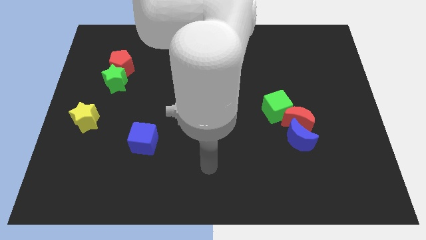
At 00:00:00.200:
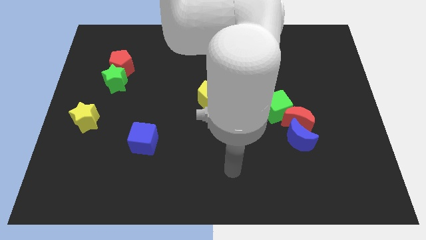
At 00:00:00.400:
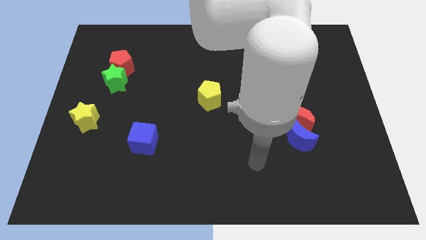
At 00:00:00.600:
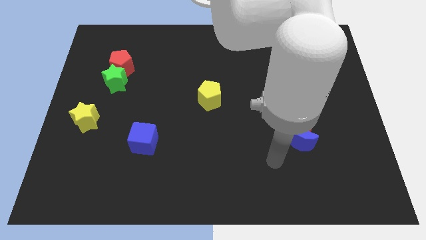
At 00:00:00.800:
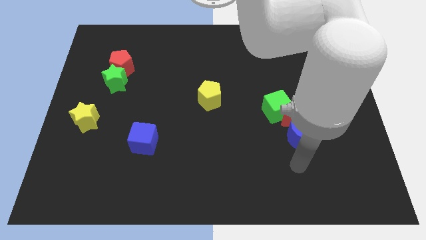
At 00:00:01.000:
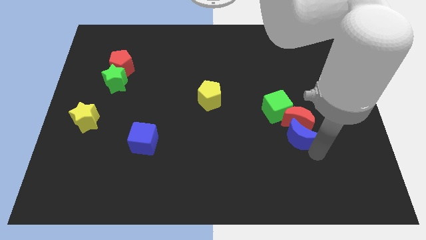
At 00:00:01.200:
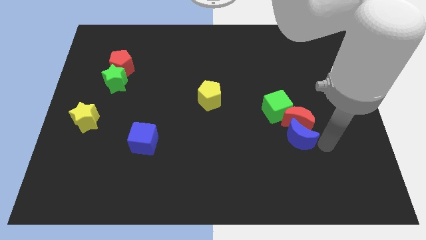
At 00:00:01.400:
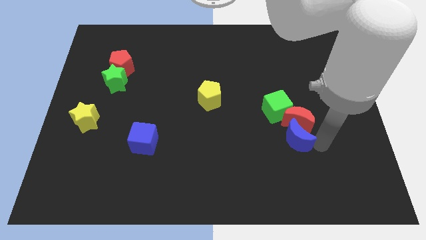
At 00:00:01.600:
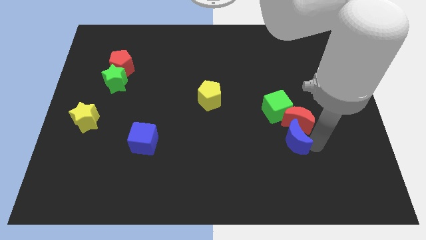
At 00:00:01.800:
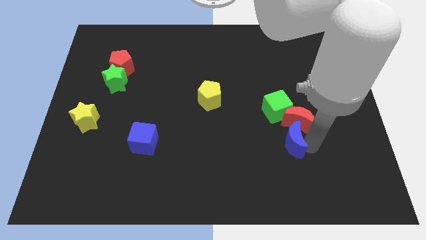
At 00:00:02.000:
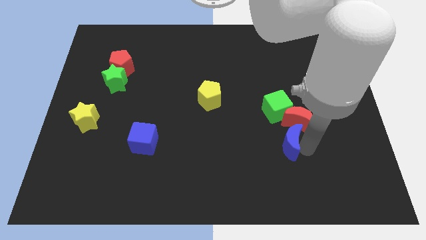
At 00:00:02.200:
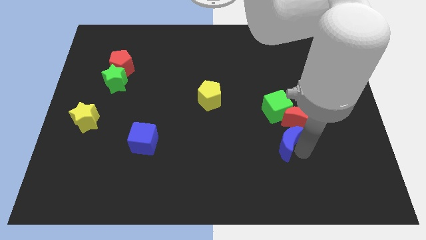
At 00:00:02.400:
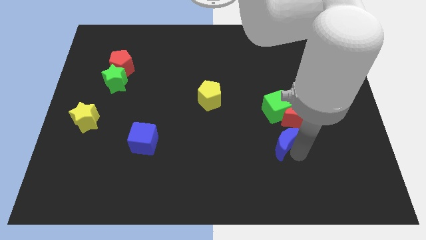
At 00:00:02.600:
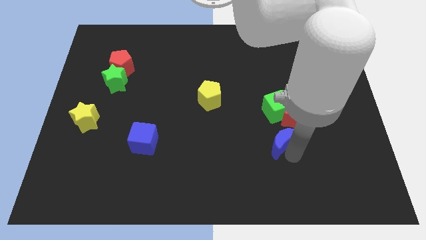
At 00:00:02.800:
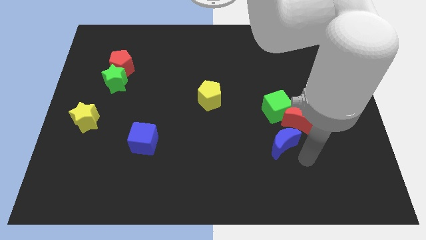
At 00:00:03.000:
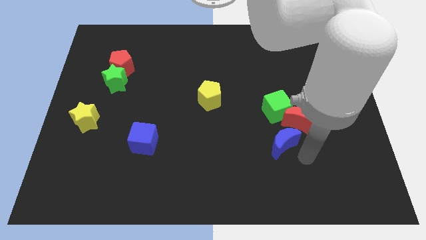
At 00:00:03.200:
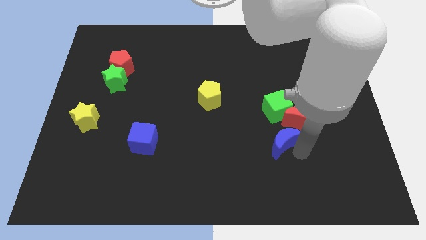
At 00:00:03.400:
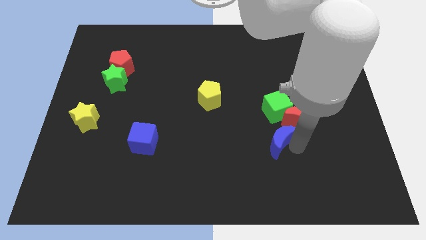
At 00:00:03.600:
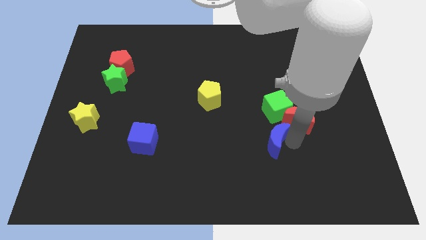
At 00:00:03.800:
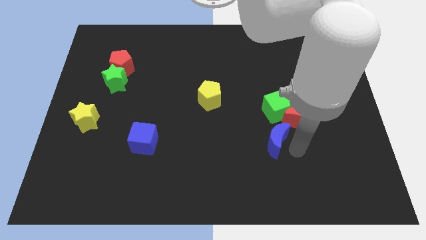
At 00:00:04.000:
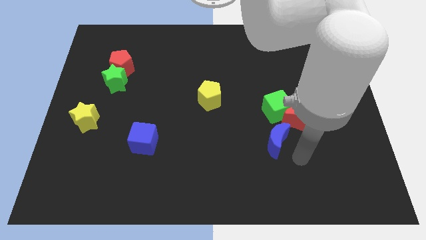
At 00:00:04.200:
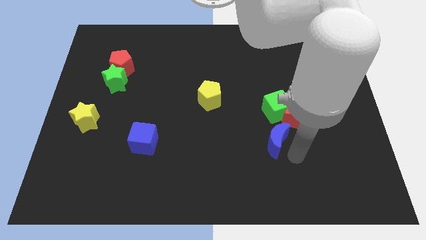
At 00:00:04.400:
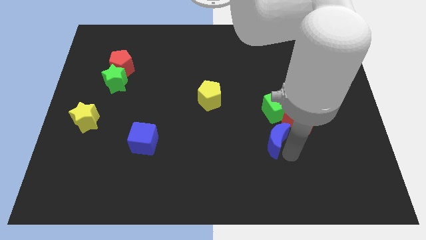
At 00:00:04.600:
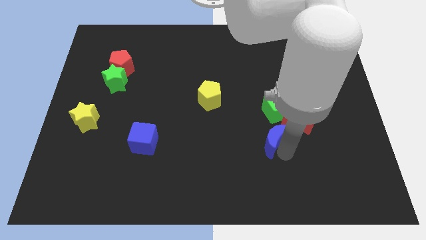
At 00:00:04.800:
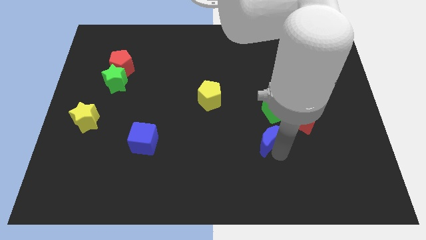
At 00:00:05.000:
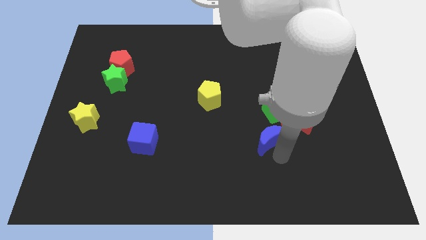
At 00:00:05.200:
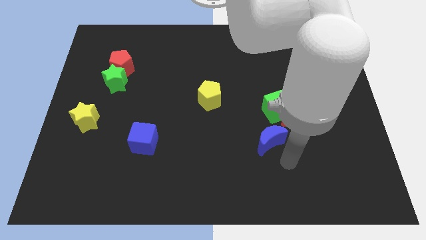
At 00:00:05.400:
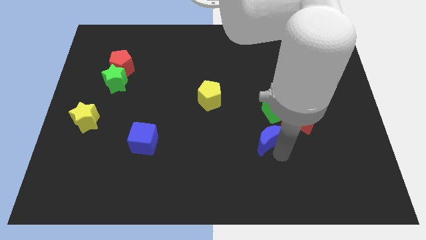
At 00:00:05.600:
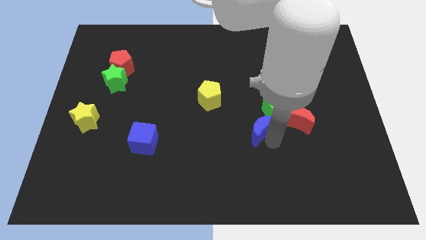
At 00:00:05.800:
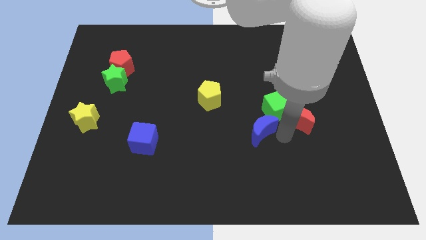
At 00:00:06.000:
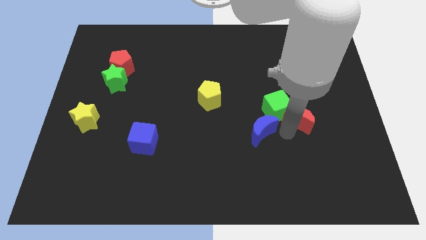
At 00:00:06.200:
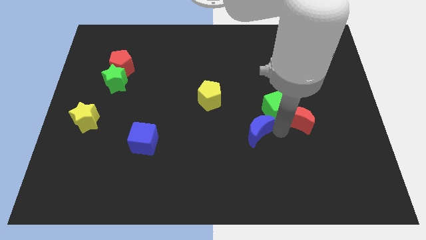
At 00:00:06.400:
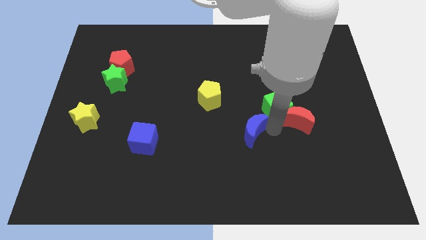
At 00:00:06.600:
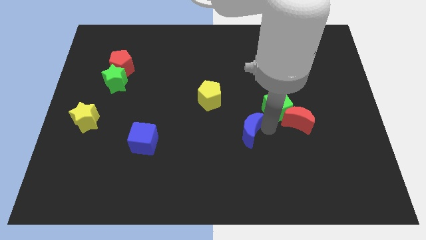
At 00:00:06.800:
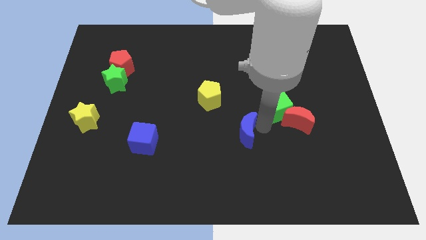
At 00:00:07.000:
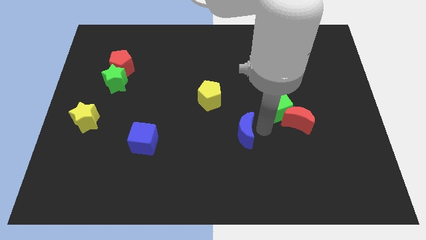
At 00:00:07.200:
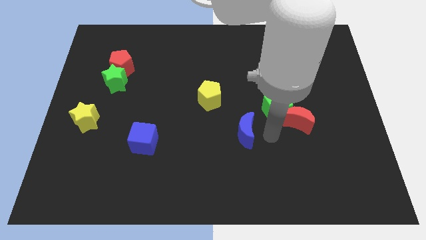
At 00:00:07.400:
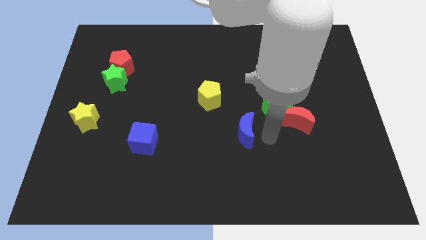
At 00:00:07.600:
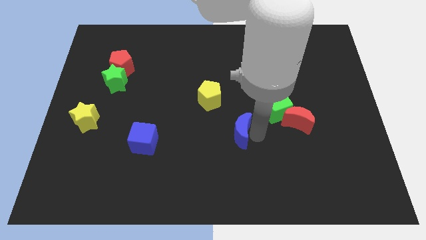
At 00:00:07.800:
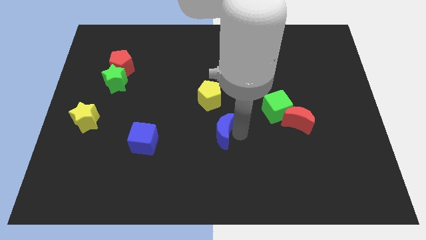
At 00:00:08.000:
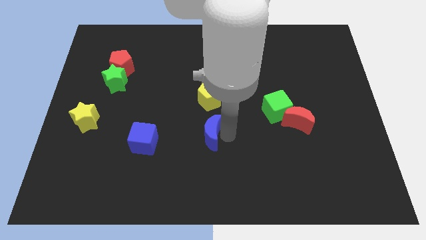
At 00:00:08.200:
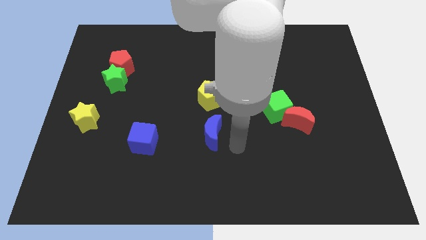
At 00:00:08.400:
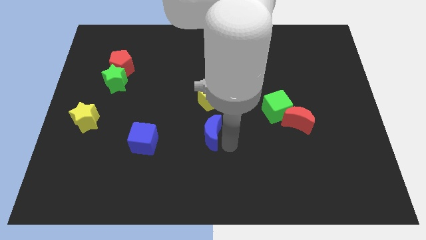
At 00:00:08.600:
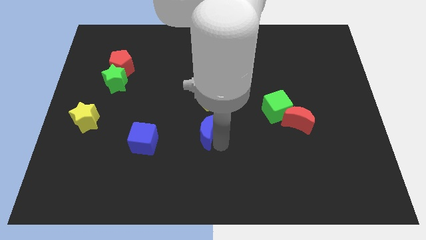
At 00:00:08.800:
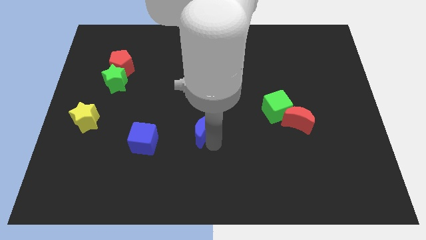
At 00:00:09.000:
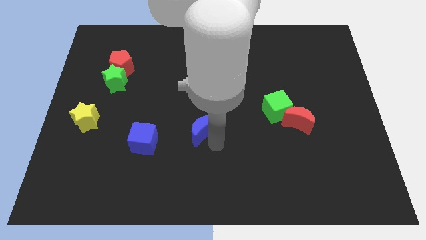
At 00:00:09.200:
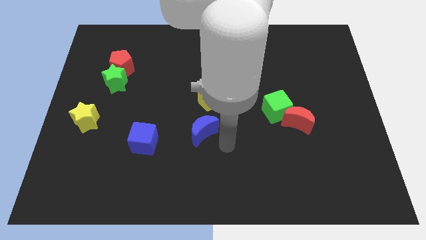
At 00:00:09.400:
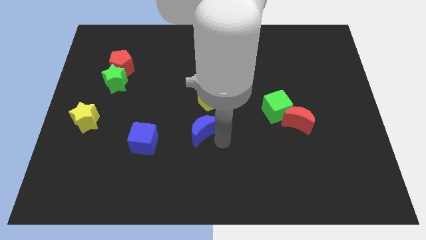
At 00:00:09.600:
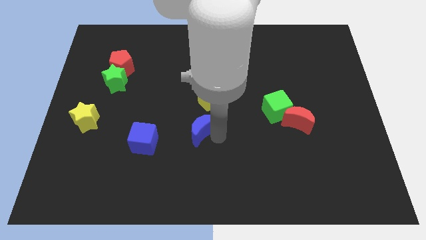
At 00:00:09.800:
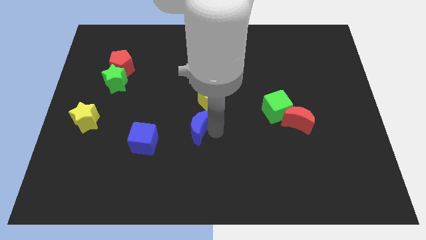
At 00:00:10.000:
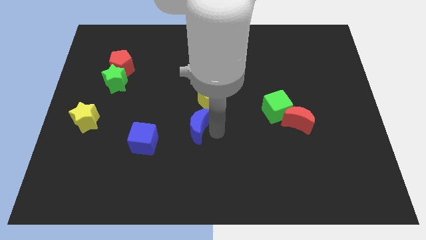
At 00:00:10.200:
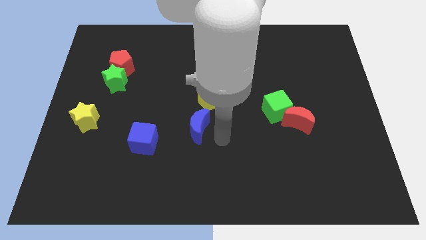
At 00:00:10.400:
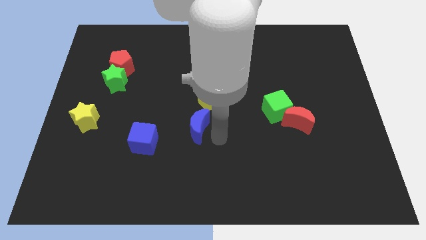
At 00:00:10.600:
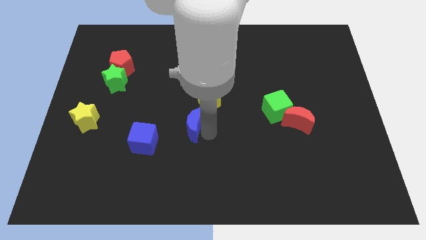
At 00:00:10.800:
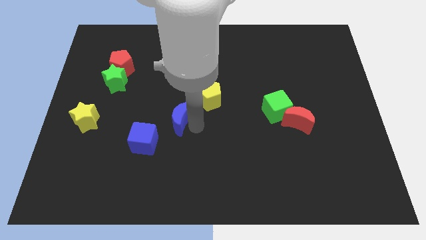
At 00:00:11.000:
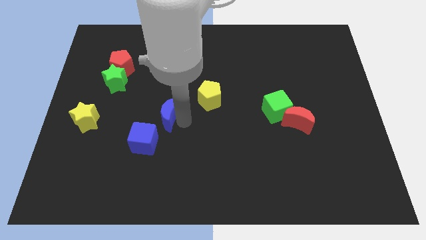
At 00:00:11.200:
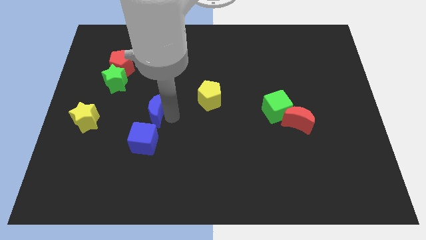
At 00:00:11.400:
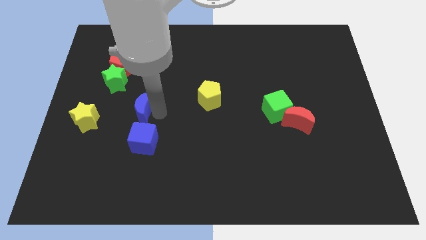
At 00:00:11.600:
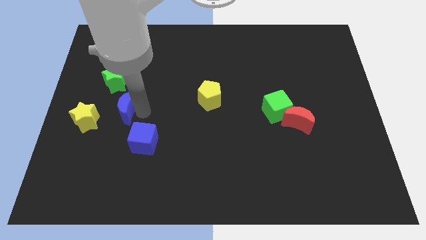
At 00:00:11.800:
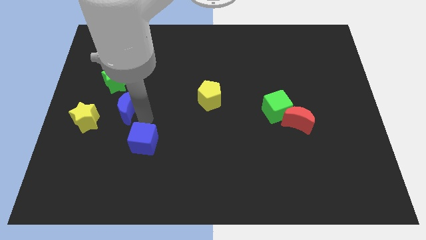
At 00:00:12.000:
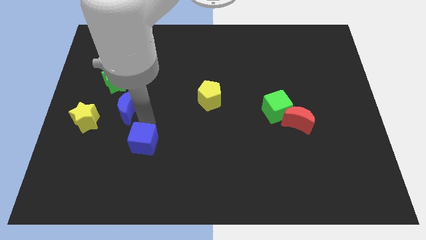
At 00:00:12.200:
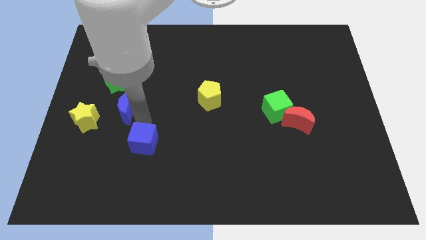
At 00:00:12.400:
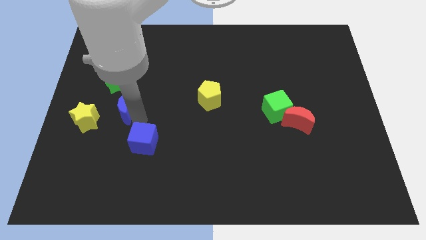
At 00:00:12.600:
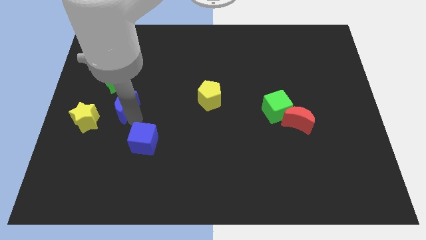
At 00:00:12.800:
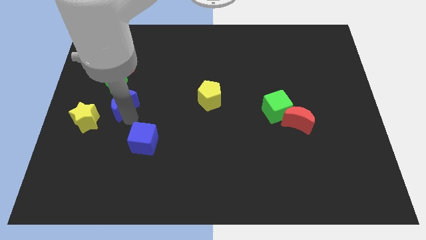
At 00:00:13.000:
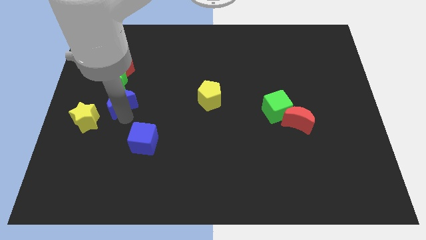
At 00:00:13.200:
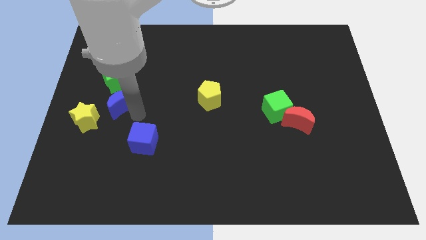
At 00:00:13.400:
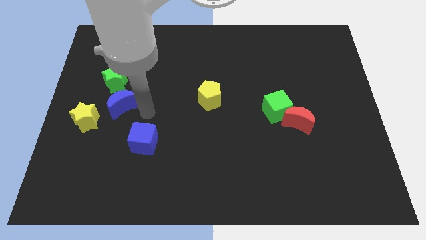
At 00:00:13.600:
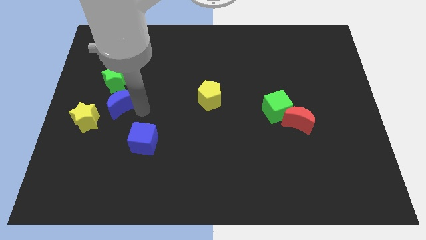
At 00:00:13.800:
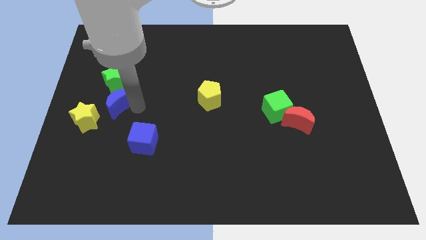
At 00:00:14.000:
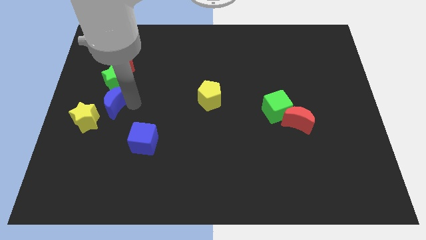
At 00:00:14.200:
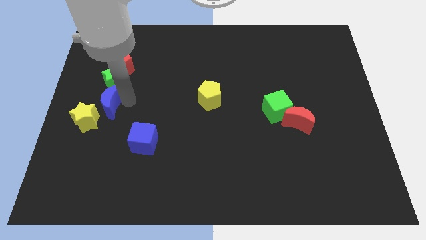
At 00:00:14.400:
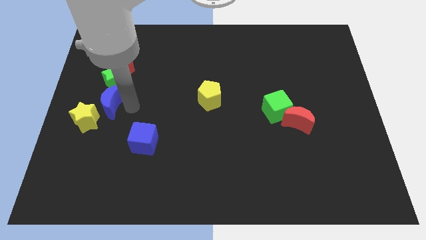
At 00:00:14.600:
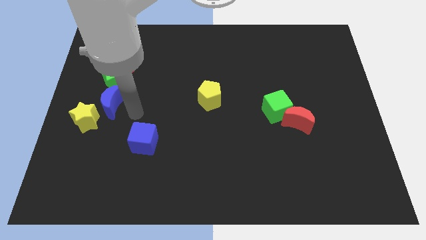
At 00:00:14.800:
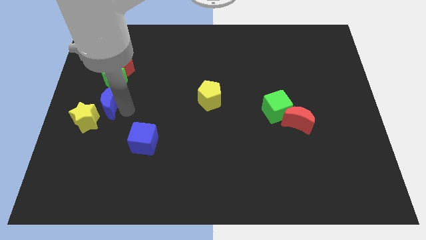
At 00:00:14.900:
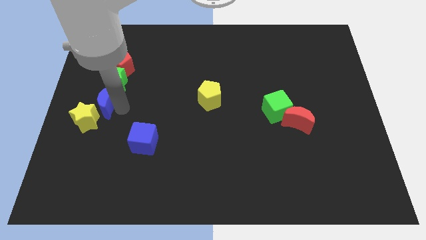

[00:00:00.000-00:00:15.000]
move the blue moon to the left side
